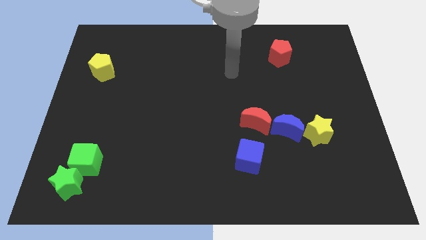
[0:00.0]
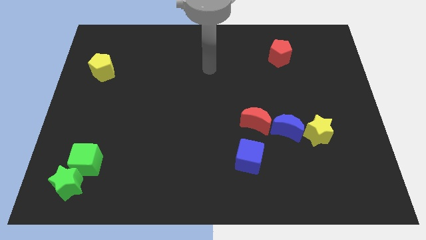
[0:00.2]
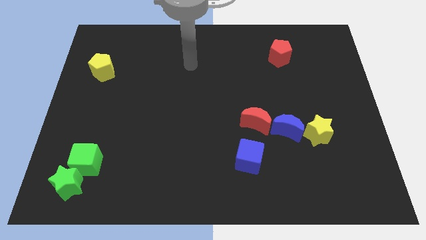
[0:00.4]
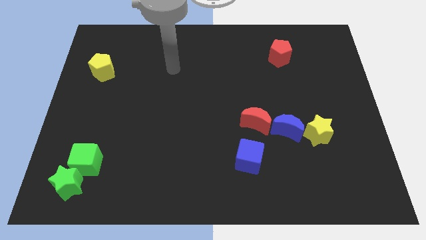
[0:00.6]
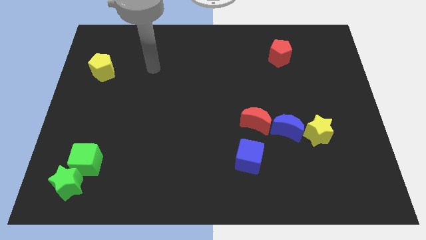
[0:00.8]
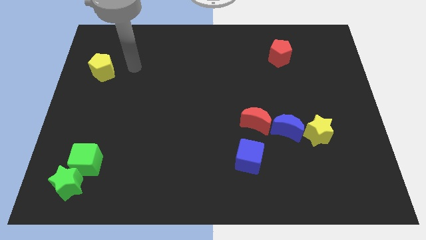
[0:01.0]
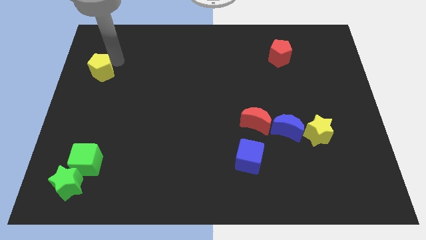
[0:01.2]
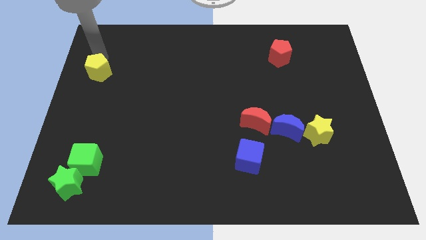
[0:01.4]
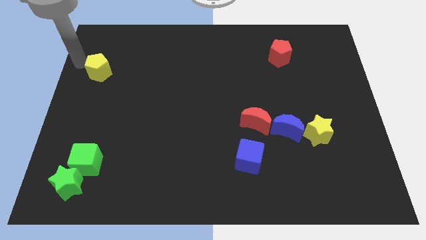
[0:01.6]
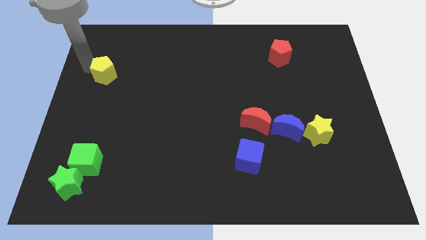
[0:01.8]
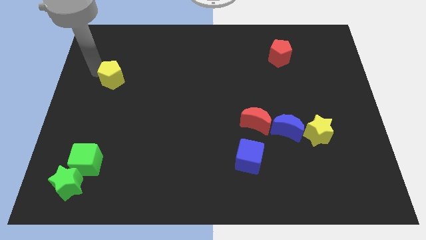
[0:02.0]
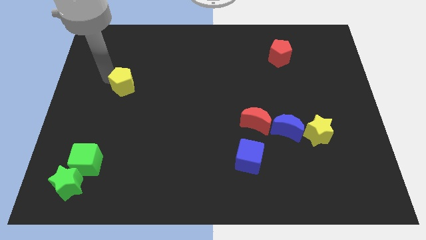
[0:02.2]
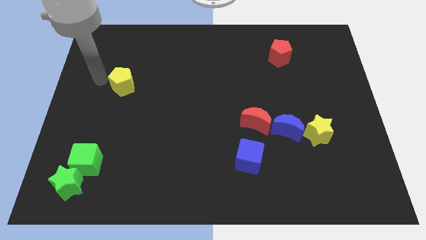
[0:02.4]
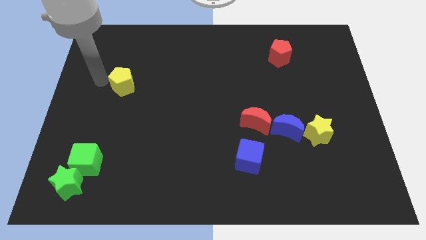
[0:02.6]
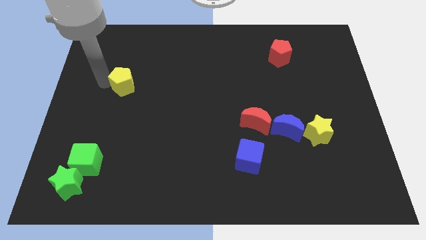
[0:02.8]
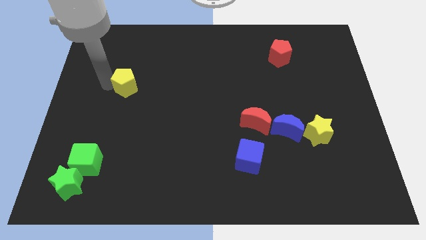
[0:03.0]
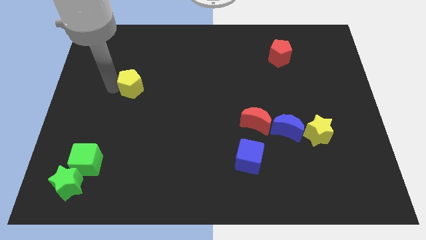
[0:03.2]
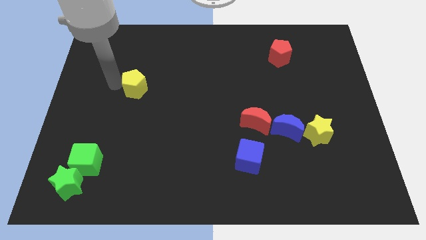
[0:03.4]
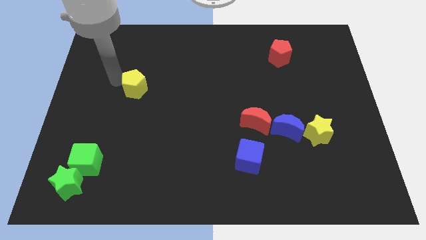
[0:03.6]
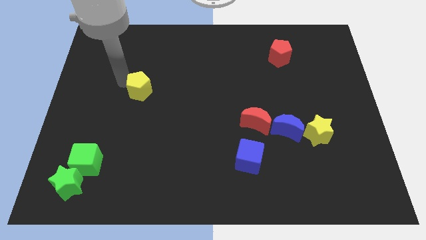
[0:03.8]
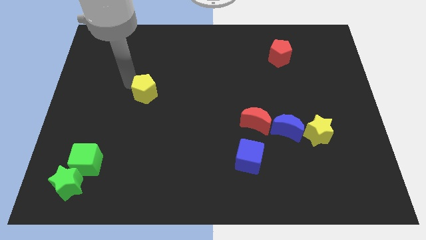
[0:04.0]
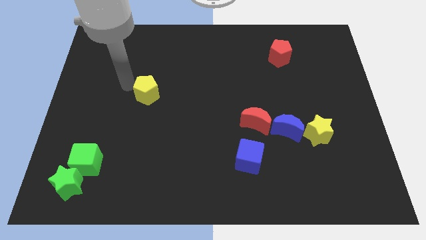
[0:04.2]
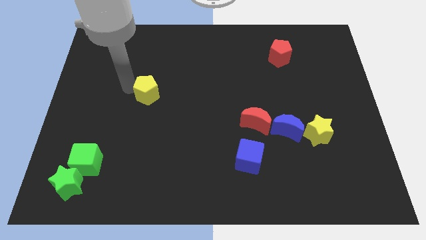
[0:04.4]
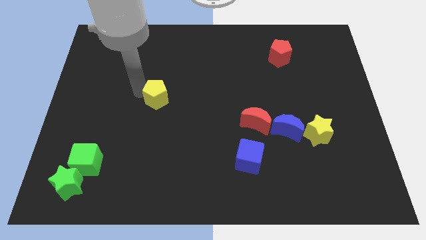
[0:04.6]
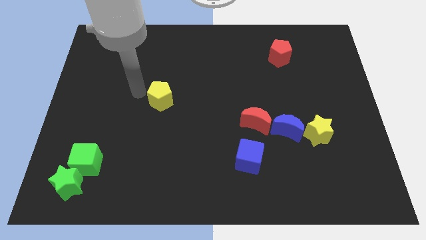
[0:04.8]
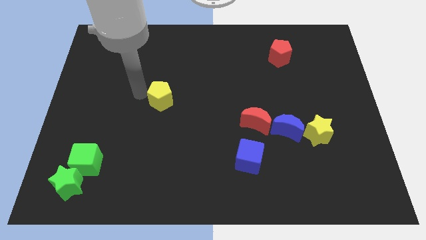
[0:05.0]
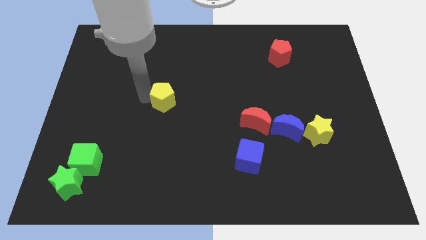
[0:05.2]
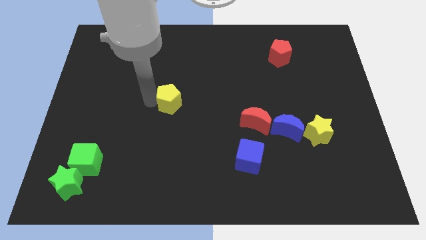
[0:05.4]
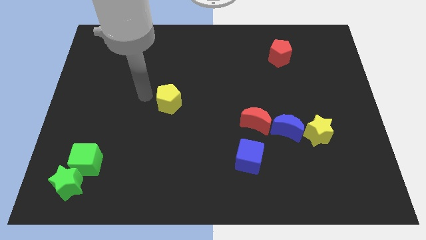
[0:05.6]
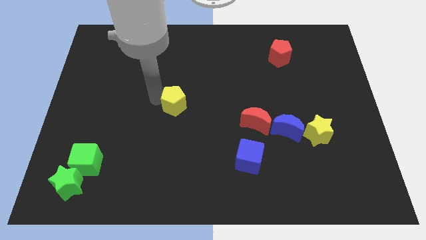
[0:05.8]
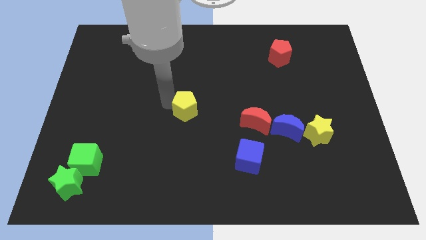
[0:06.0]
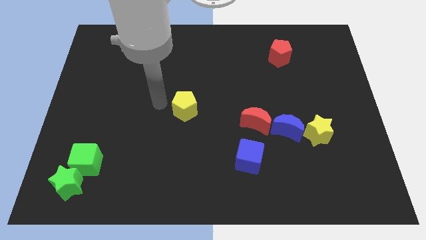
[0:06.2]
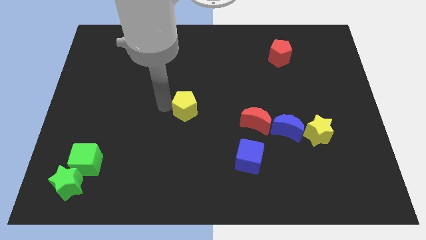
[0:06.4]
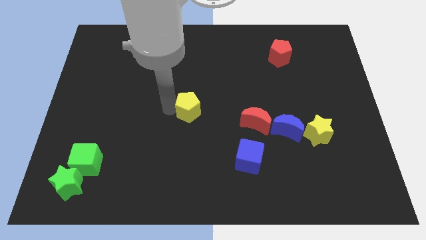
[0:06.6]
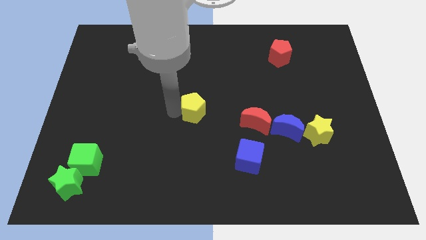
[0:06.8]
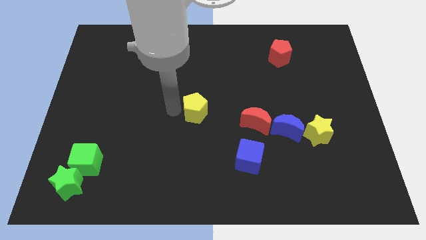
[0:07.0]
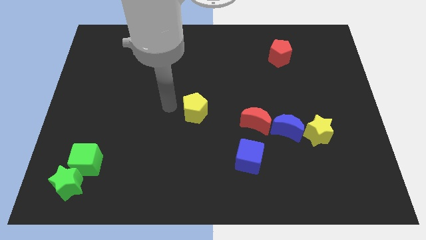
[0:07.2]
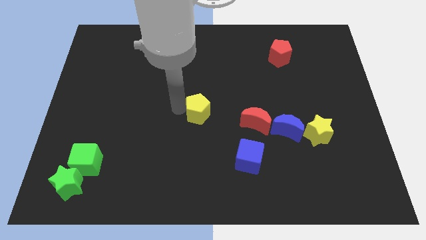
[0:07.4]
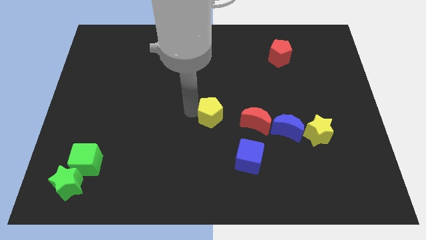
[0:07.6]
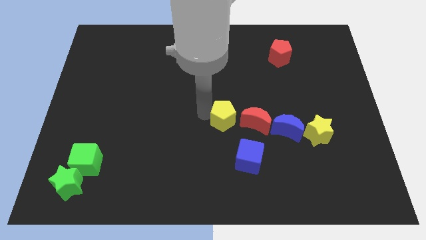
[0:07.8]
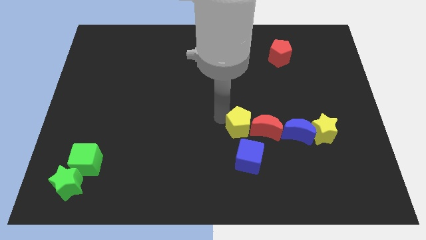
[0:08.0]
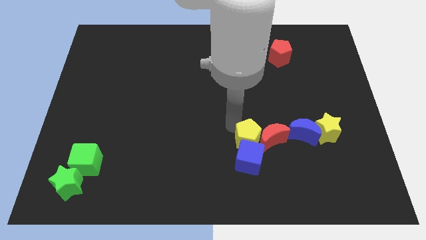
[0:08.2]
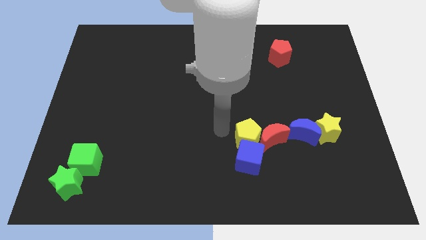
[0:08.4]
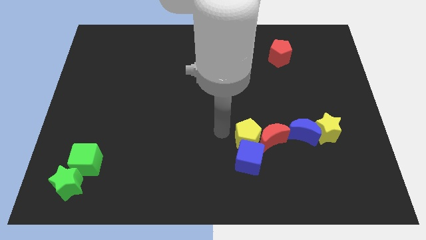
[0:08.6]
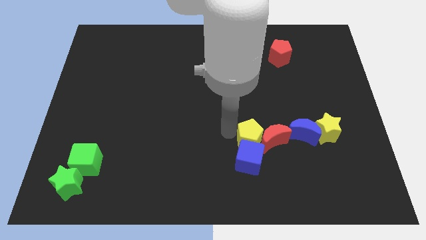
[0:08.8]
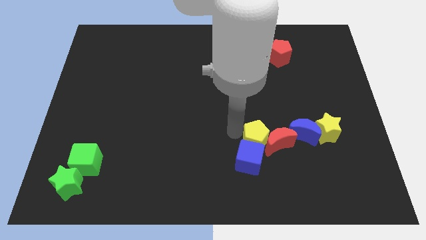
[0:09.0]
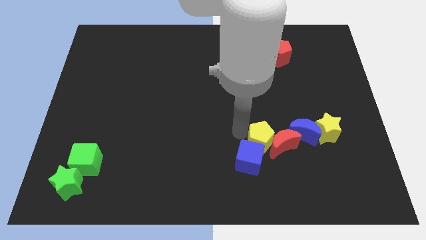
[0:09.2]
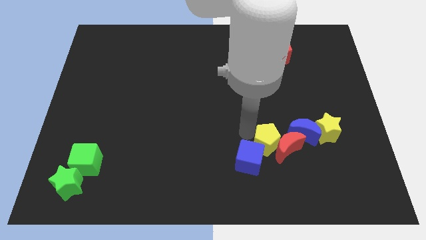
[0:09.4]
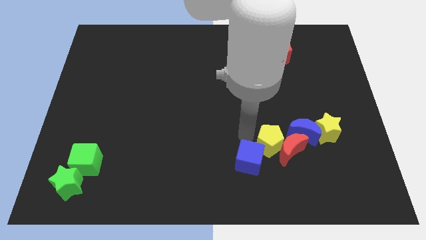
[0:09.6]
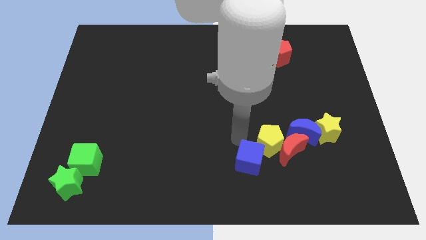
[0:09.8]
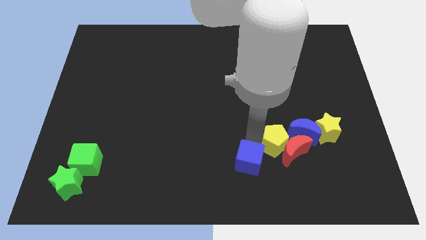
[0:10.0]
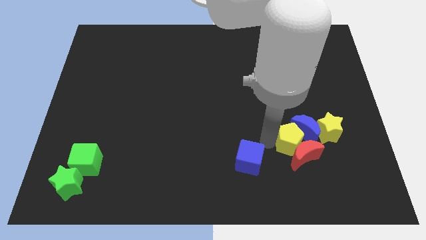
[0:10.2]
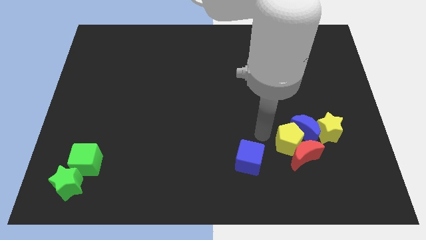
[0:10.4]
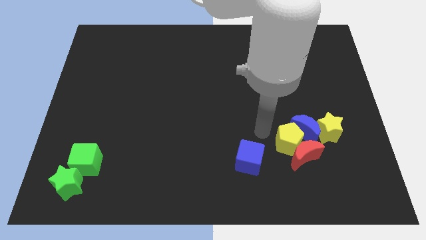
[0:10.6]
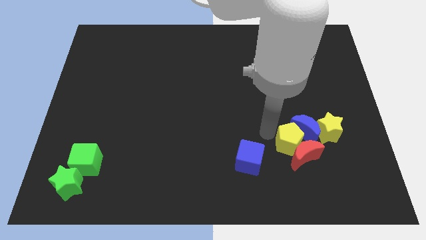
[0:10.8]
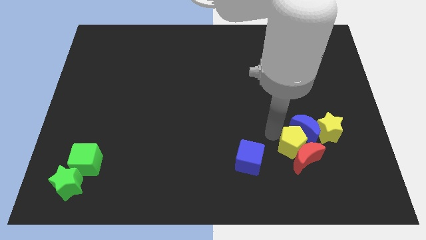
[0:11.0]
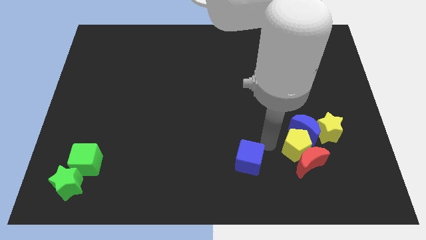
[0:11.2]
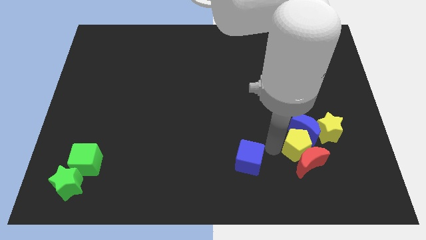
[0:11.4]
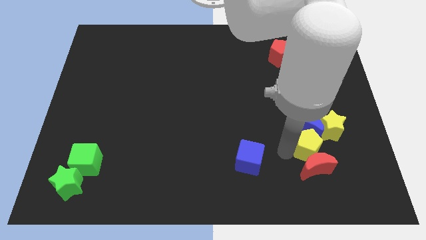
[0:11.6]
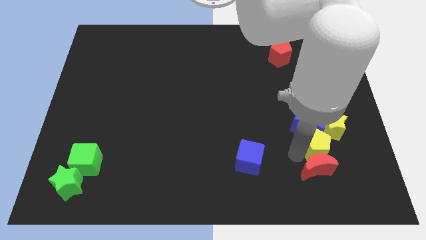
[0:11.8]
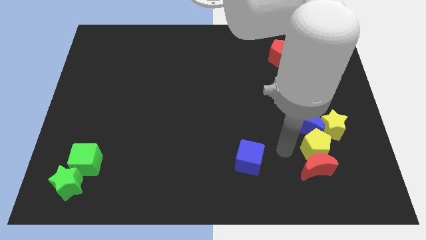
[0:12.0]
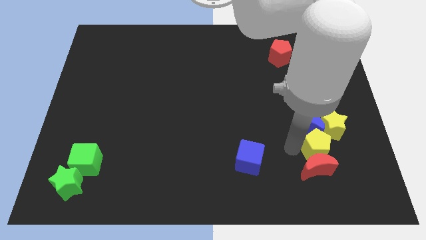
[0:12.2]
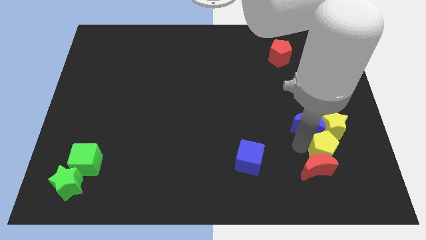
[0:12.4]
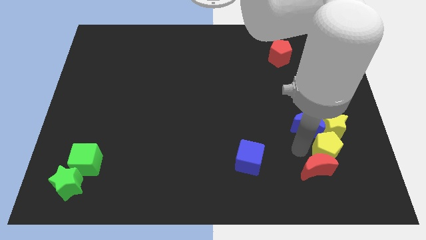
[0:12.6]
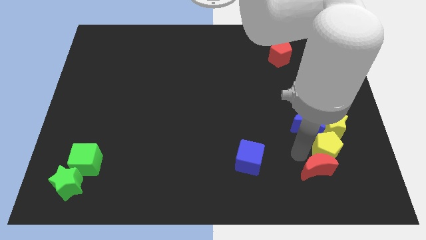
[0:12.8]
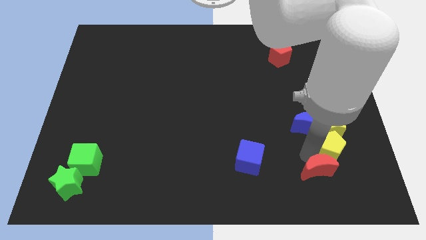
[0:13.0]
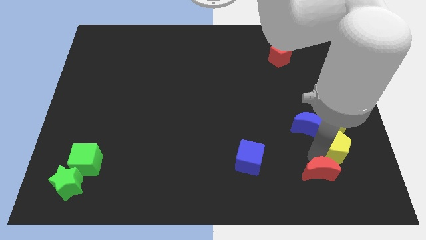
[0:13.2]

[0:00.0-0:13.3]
slide the yellow pentagon to the bottom right of the yellow star

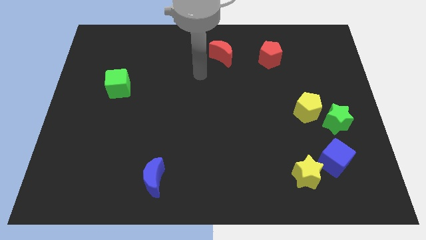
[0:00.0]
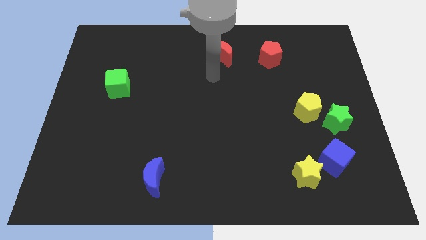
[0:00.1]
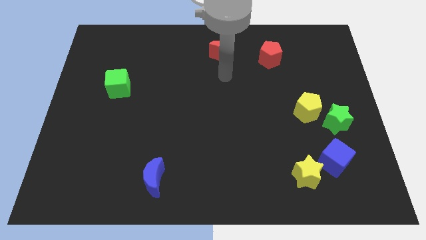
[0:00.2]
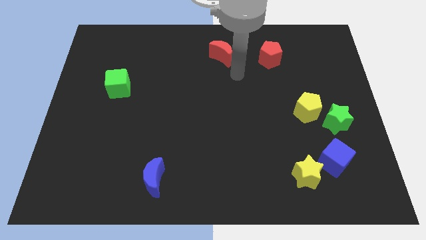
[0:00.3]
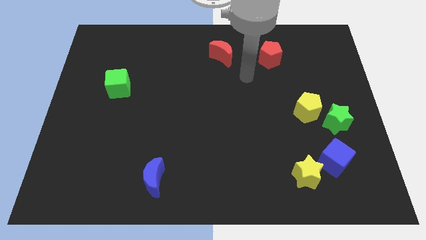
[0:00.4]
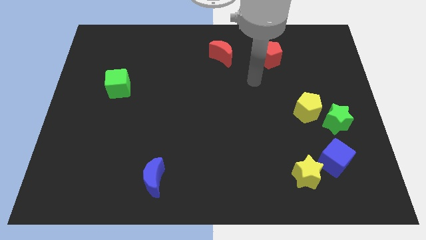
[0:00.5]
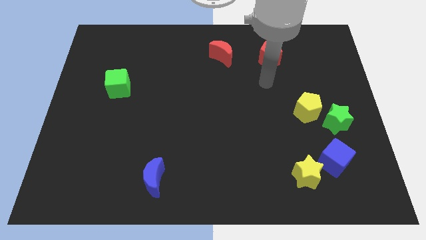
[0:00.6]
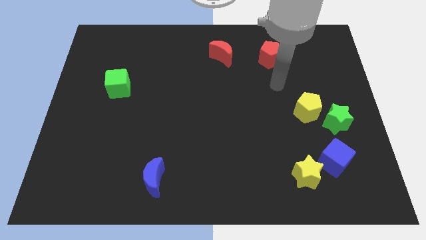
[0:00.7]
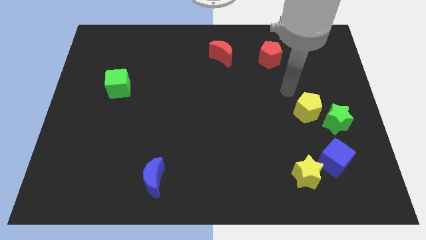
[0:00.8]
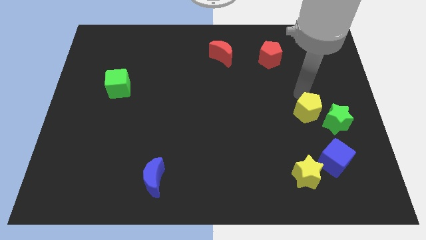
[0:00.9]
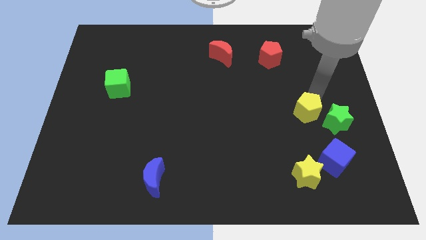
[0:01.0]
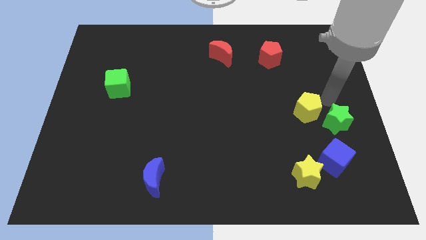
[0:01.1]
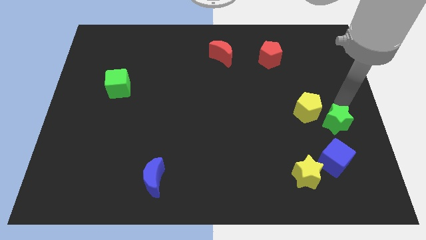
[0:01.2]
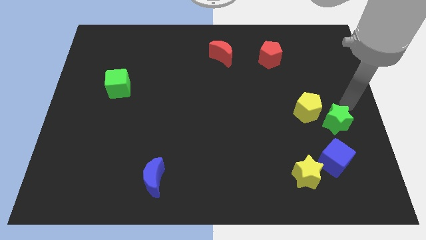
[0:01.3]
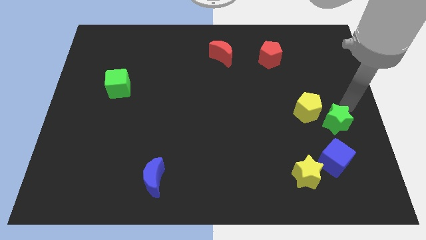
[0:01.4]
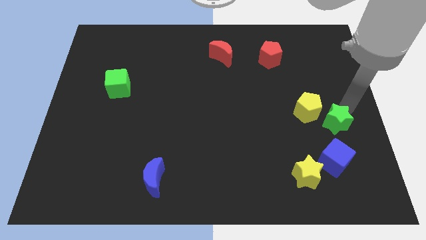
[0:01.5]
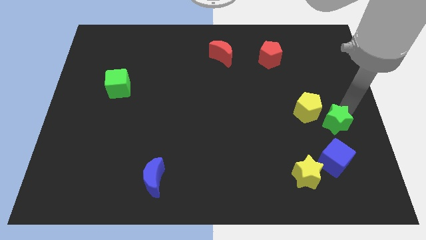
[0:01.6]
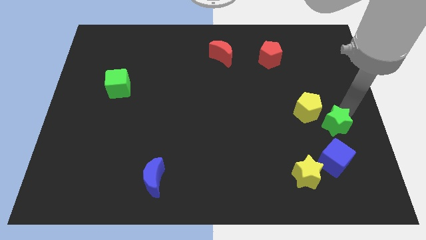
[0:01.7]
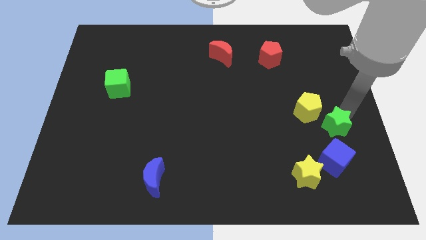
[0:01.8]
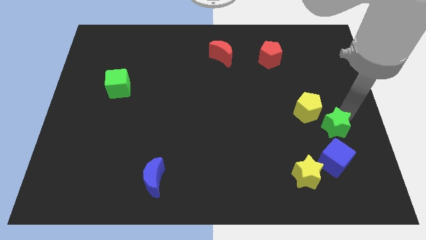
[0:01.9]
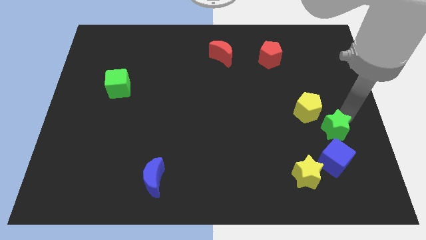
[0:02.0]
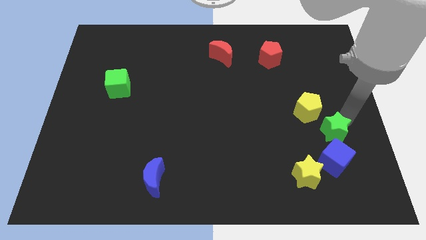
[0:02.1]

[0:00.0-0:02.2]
put the green star to the bottom side of the yellow pentagon
